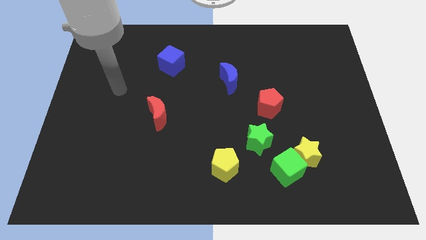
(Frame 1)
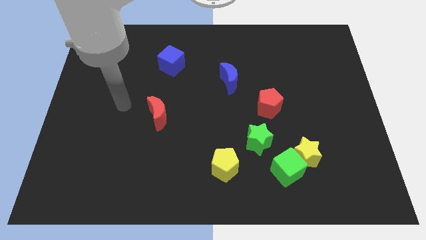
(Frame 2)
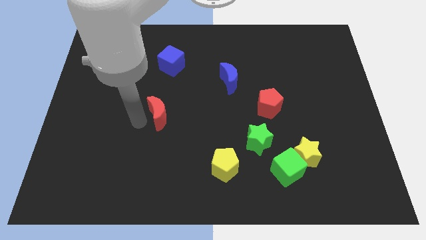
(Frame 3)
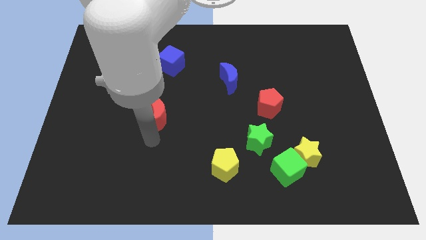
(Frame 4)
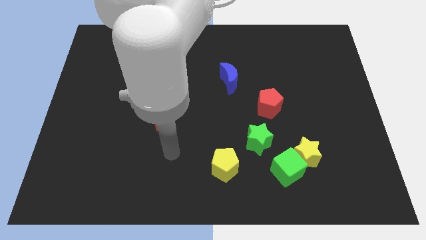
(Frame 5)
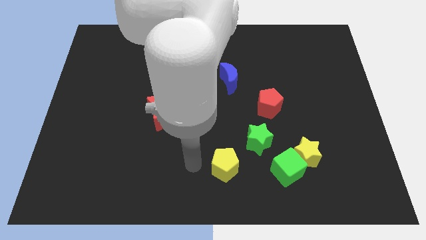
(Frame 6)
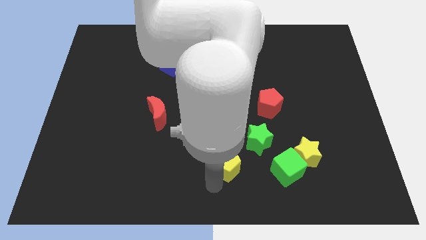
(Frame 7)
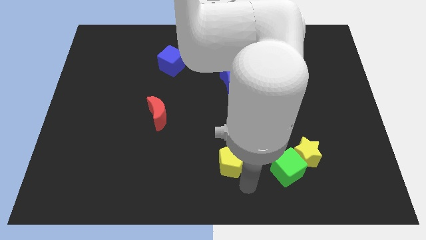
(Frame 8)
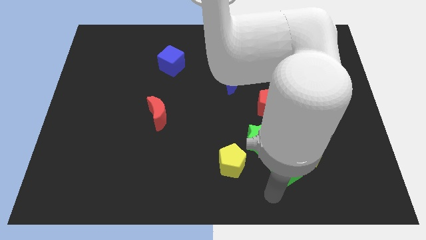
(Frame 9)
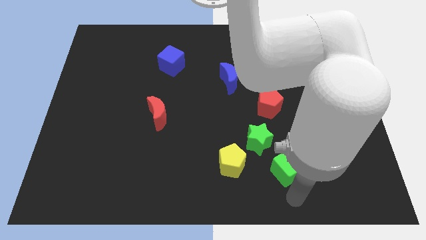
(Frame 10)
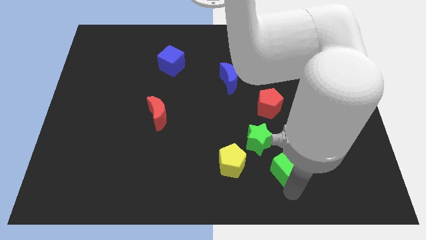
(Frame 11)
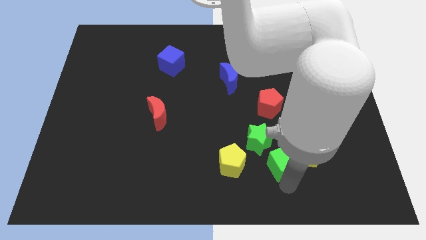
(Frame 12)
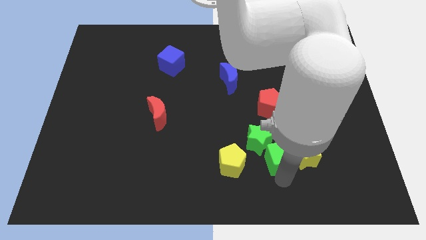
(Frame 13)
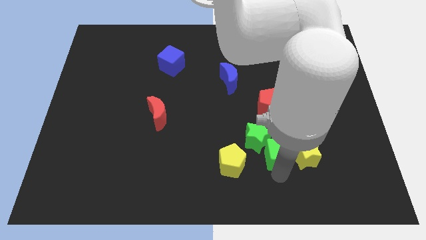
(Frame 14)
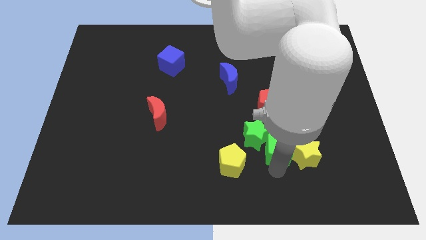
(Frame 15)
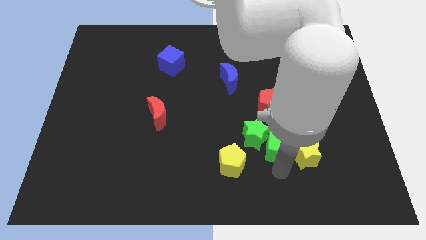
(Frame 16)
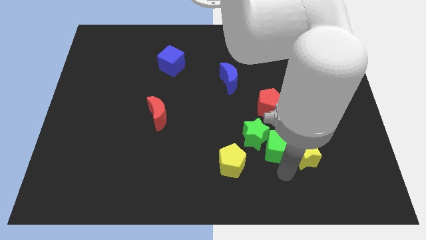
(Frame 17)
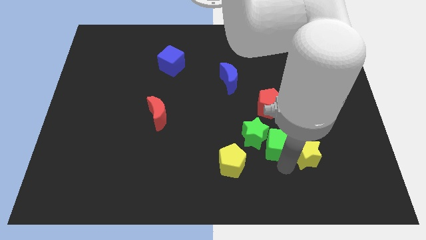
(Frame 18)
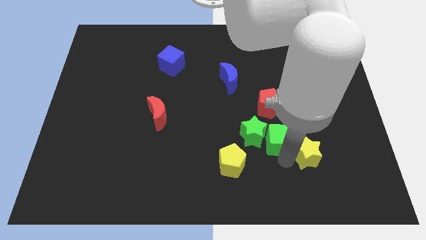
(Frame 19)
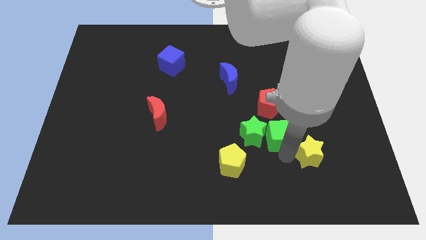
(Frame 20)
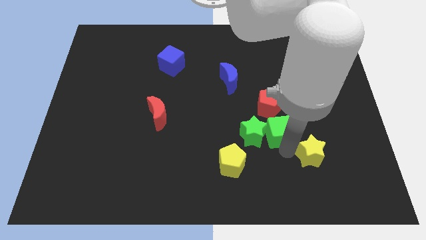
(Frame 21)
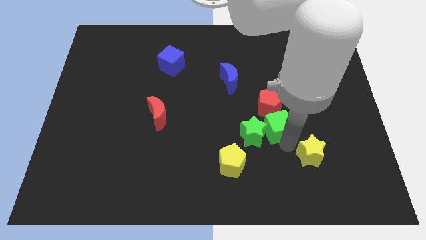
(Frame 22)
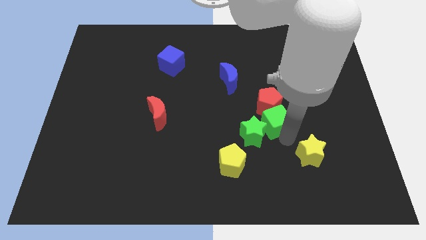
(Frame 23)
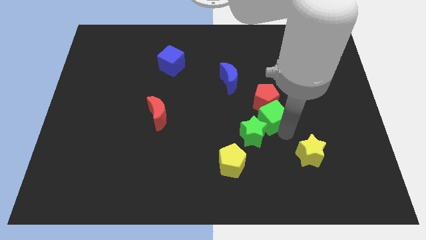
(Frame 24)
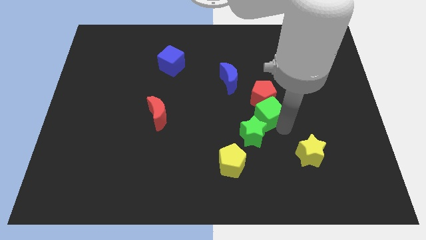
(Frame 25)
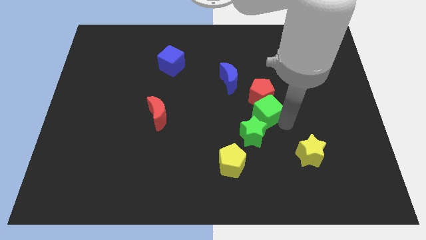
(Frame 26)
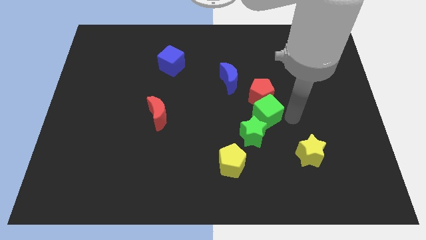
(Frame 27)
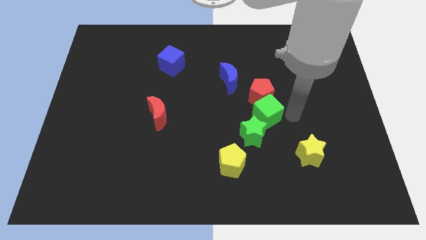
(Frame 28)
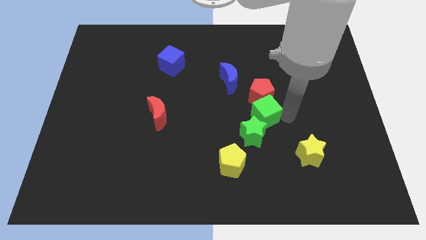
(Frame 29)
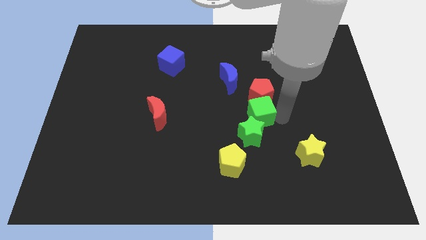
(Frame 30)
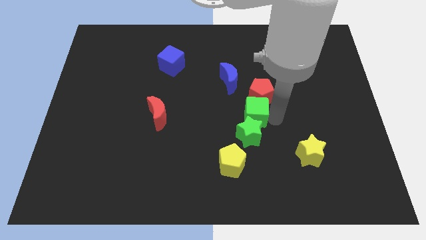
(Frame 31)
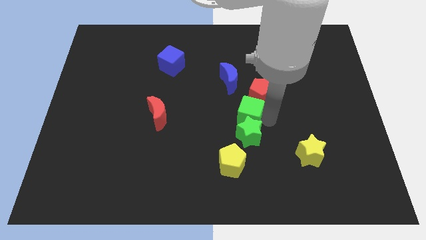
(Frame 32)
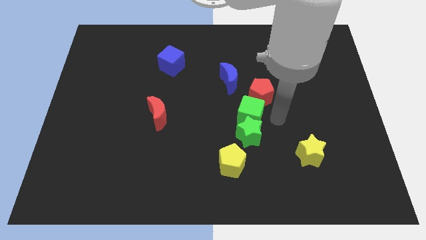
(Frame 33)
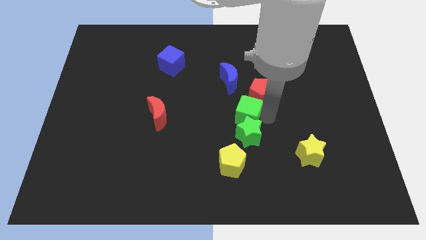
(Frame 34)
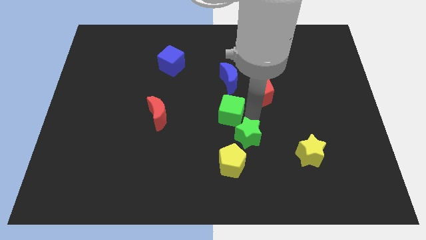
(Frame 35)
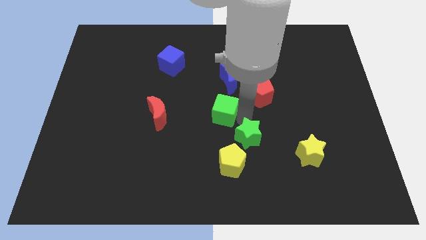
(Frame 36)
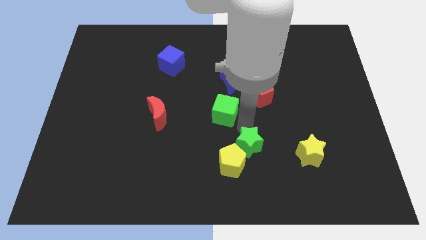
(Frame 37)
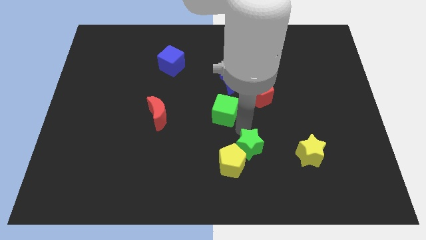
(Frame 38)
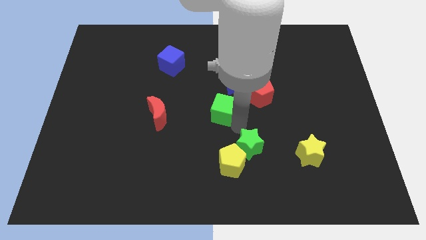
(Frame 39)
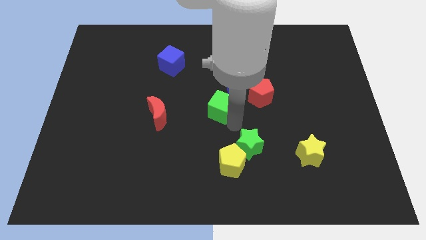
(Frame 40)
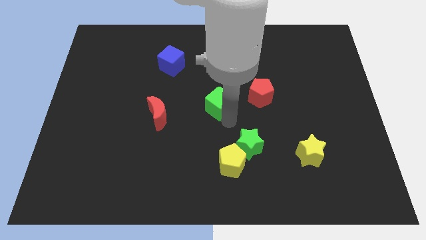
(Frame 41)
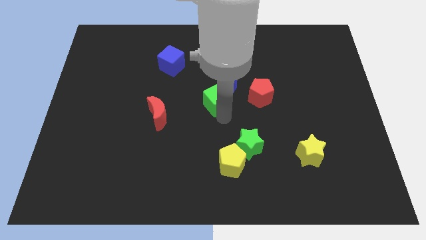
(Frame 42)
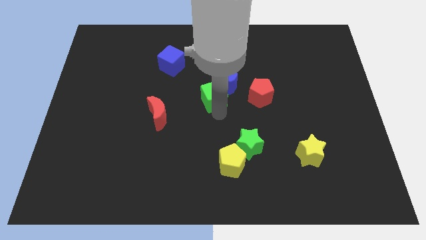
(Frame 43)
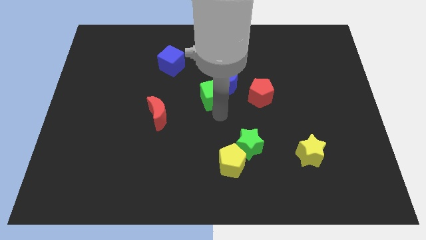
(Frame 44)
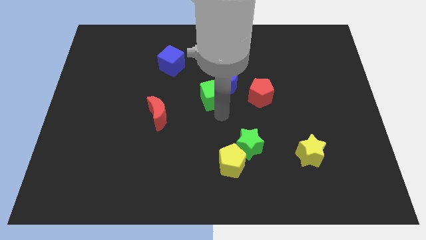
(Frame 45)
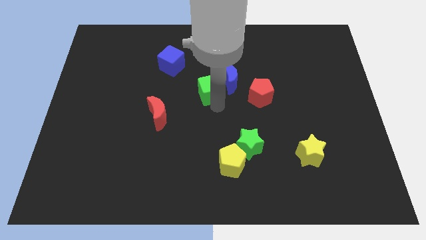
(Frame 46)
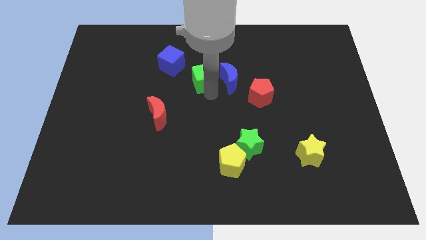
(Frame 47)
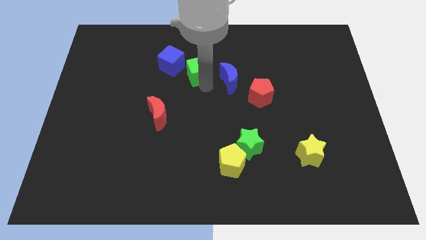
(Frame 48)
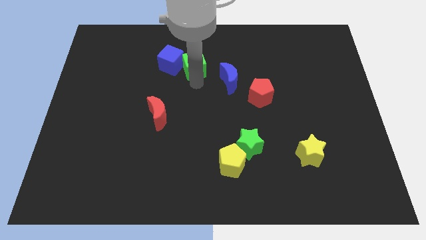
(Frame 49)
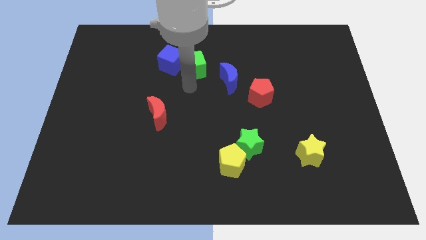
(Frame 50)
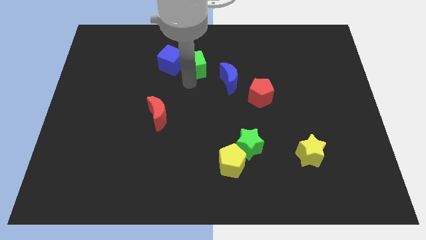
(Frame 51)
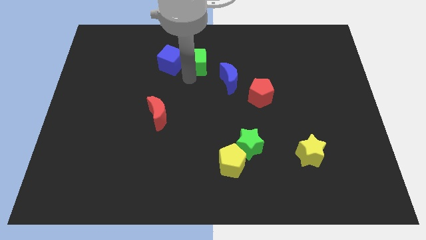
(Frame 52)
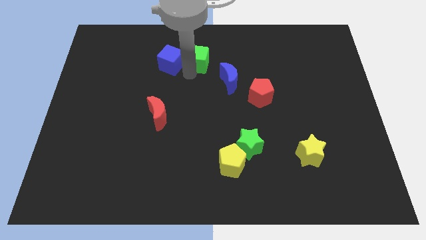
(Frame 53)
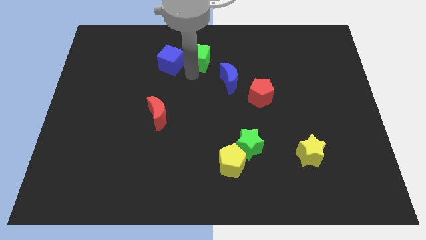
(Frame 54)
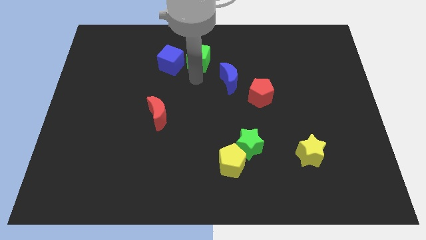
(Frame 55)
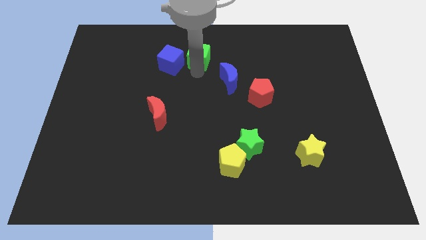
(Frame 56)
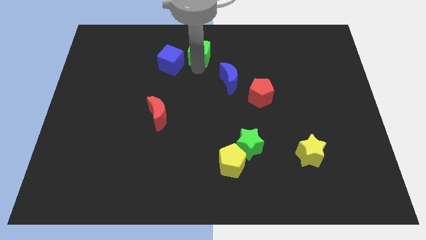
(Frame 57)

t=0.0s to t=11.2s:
put the green cube to the top side
